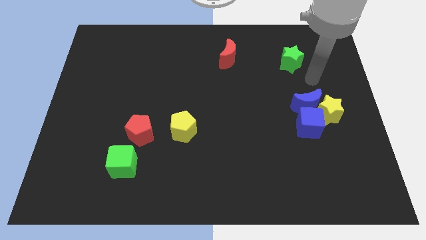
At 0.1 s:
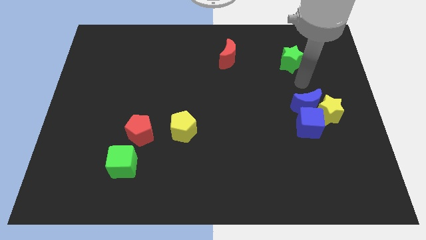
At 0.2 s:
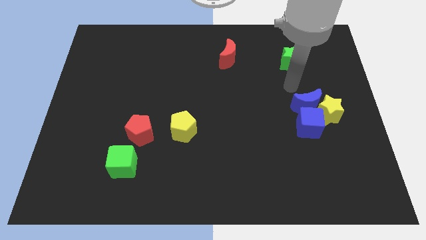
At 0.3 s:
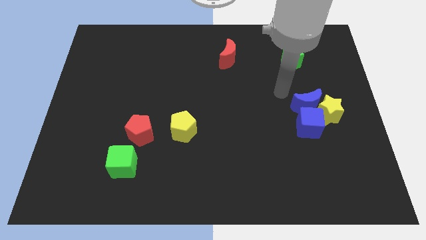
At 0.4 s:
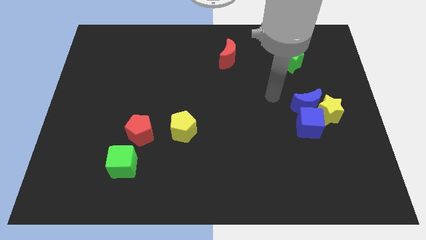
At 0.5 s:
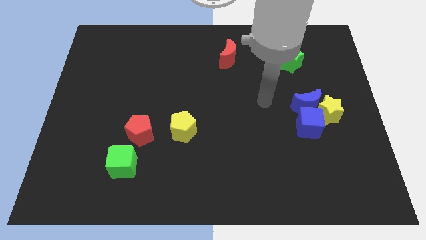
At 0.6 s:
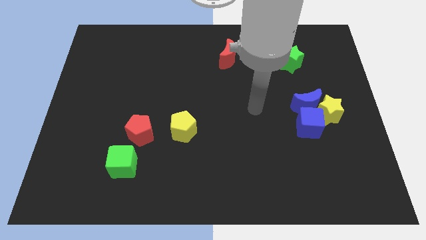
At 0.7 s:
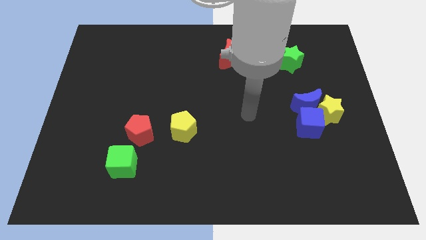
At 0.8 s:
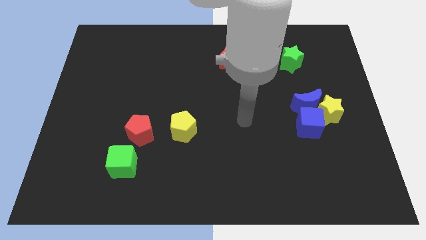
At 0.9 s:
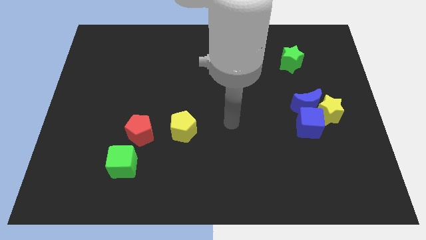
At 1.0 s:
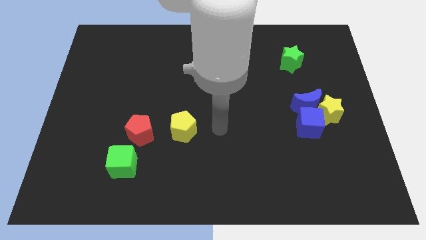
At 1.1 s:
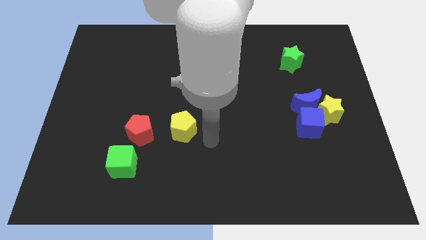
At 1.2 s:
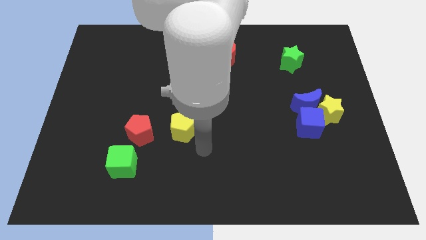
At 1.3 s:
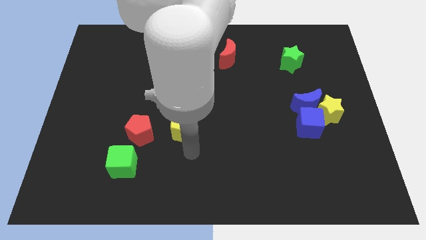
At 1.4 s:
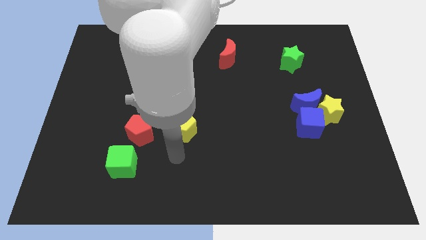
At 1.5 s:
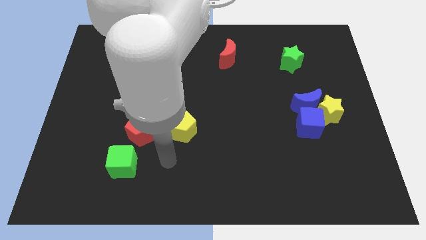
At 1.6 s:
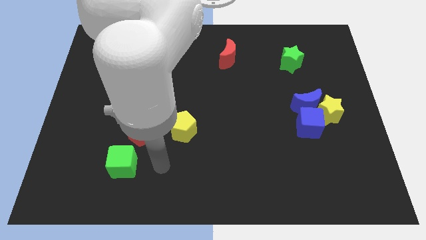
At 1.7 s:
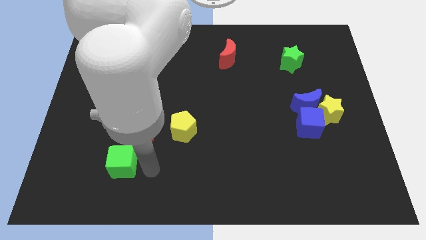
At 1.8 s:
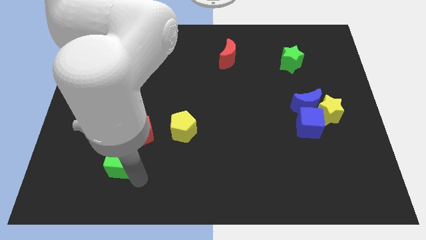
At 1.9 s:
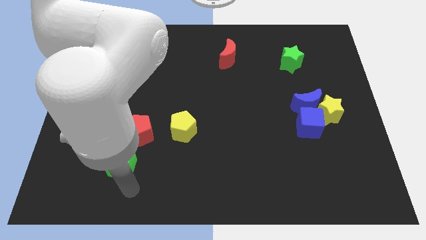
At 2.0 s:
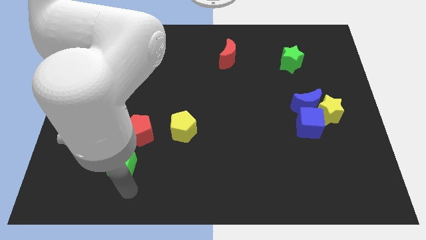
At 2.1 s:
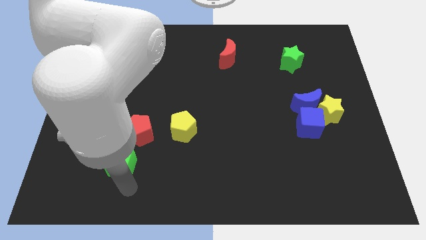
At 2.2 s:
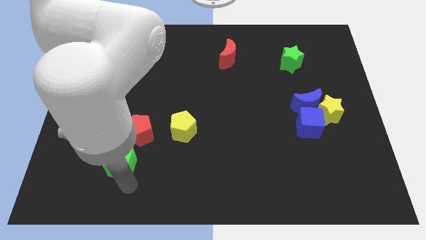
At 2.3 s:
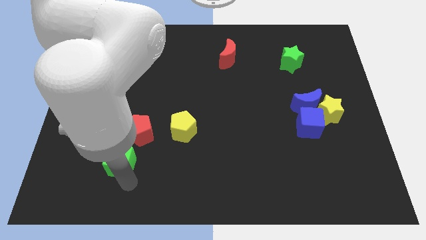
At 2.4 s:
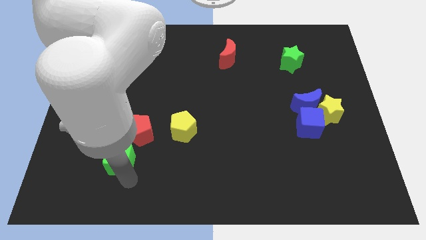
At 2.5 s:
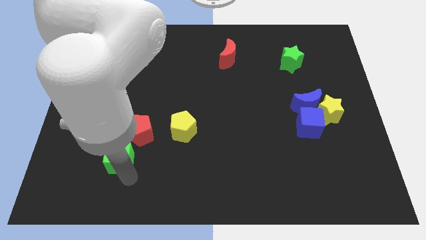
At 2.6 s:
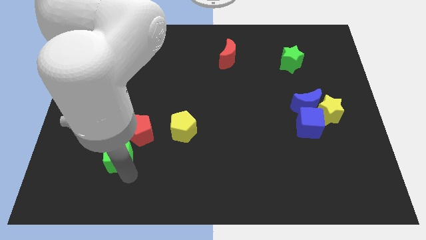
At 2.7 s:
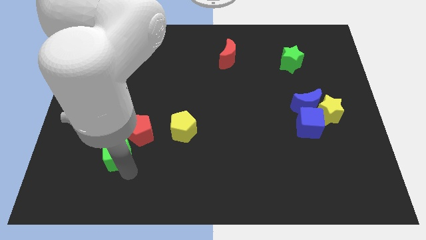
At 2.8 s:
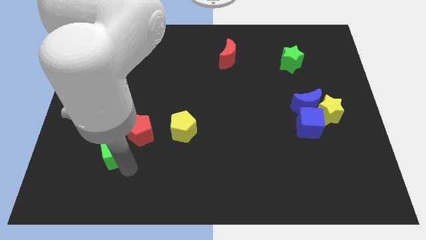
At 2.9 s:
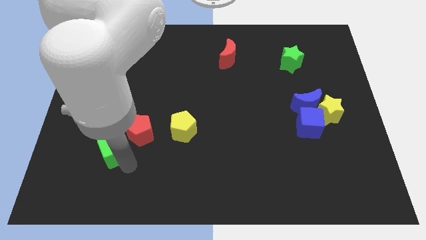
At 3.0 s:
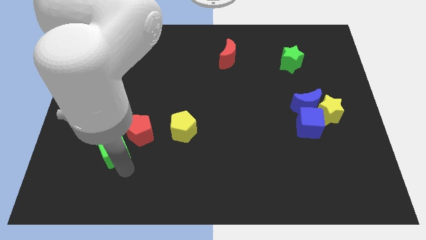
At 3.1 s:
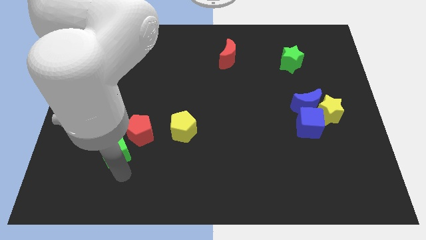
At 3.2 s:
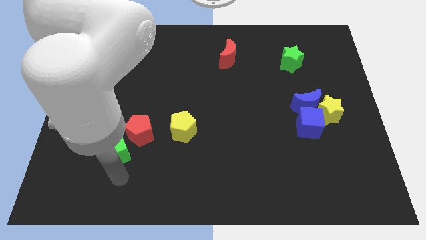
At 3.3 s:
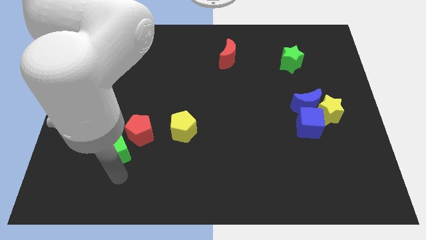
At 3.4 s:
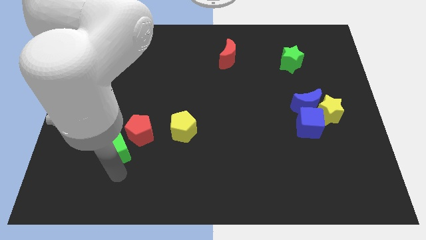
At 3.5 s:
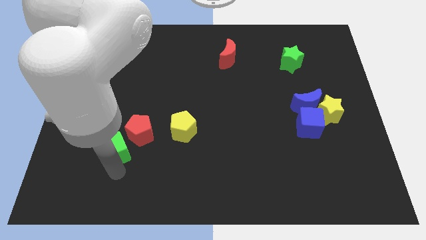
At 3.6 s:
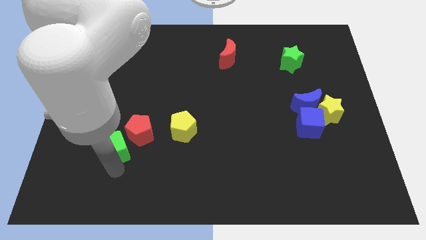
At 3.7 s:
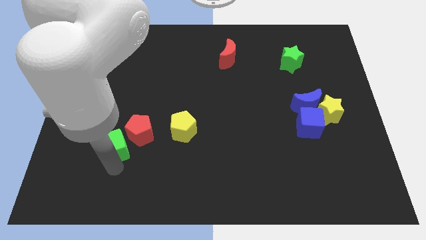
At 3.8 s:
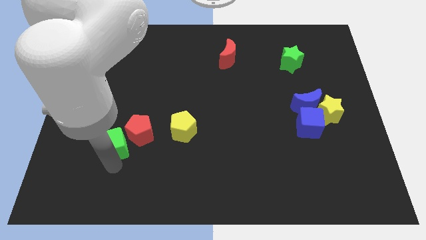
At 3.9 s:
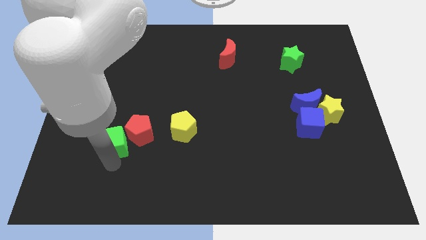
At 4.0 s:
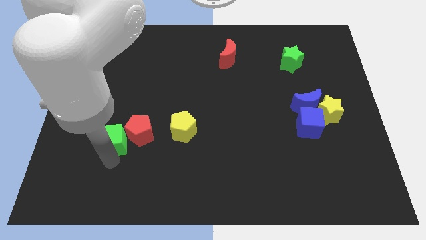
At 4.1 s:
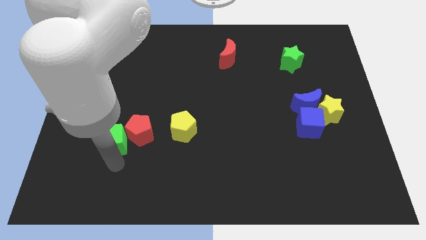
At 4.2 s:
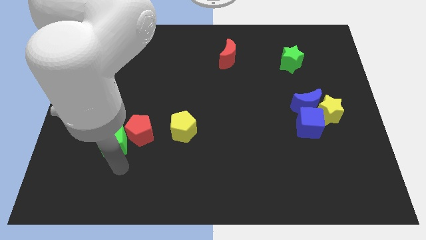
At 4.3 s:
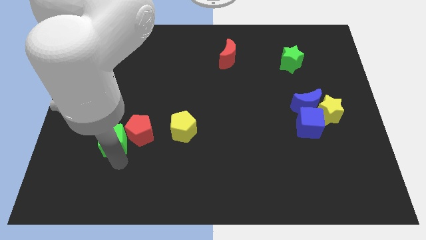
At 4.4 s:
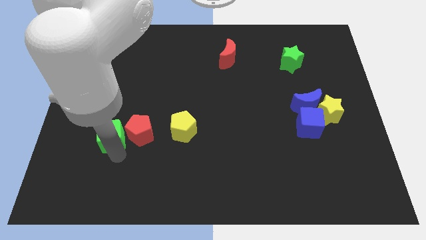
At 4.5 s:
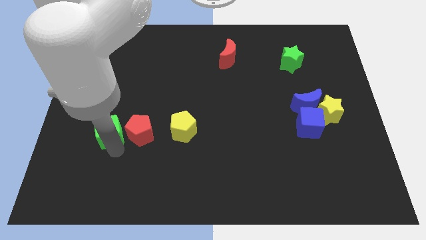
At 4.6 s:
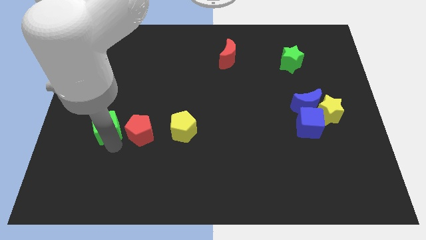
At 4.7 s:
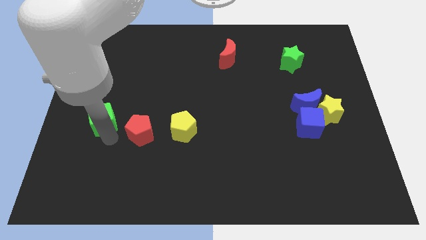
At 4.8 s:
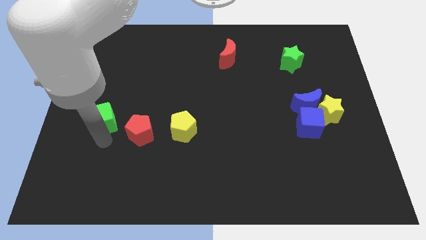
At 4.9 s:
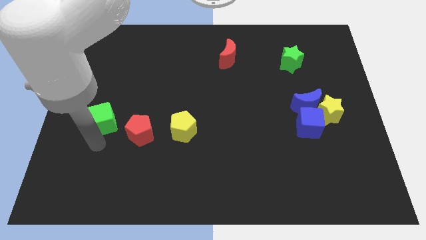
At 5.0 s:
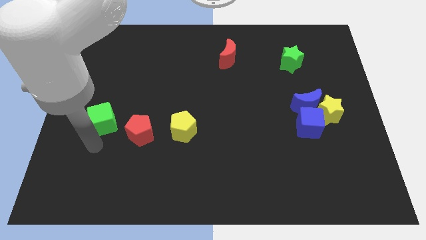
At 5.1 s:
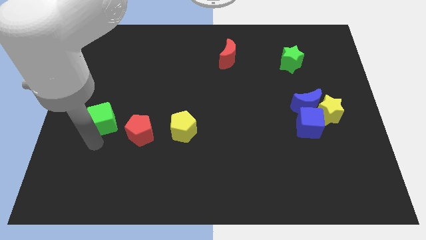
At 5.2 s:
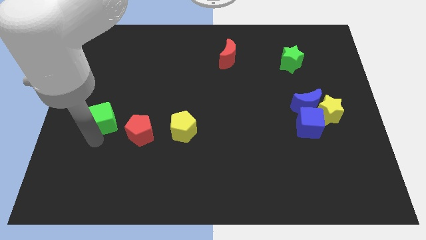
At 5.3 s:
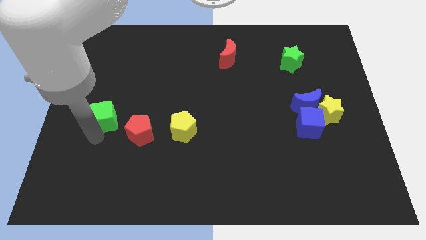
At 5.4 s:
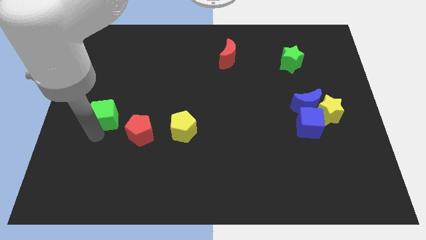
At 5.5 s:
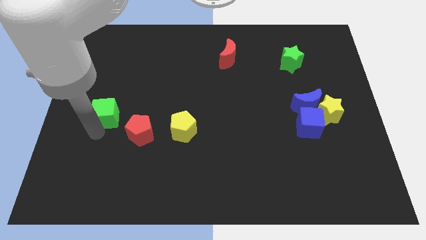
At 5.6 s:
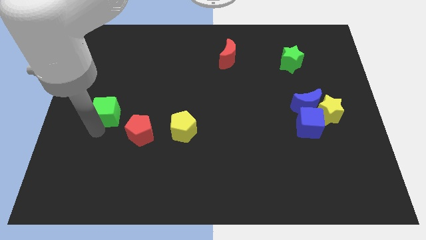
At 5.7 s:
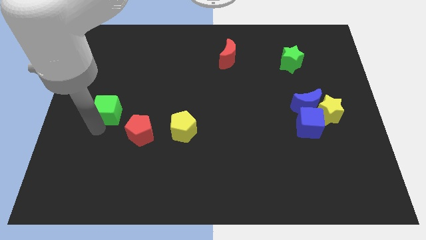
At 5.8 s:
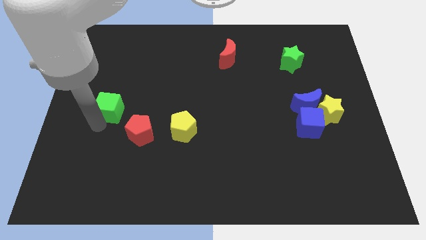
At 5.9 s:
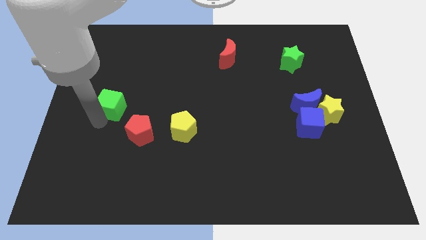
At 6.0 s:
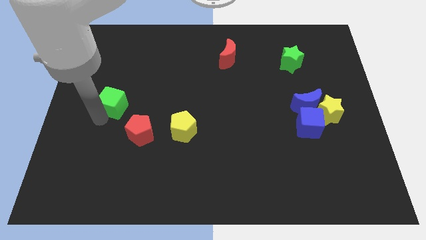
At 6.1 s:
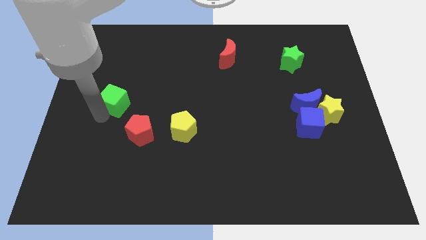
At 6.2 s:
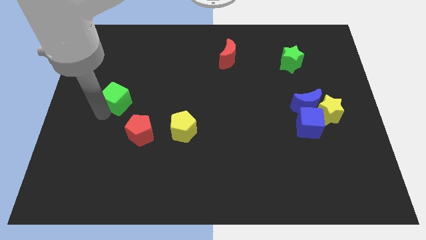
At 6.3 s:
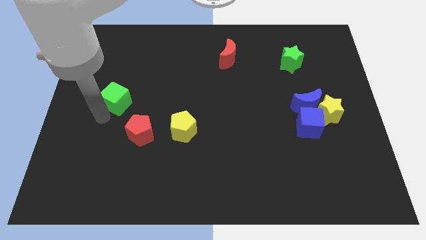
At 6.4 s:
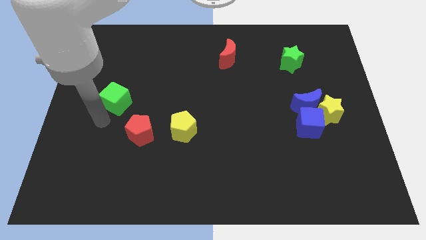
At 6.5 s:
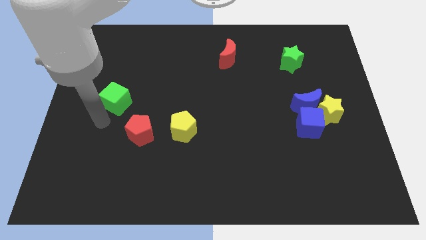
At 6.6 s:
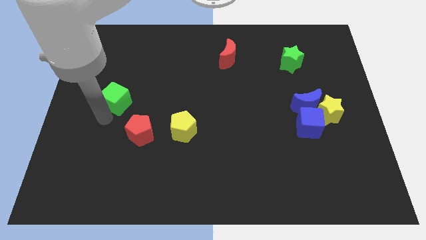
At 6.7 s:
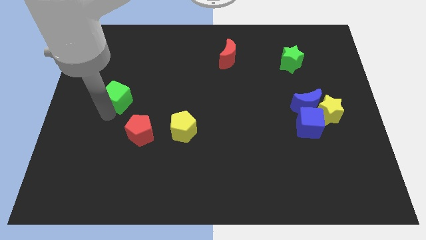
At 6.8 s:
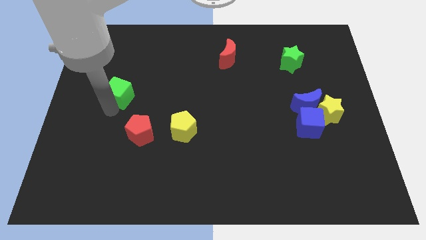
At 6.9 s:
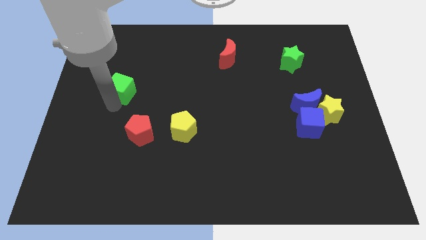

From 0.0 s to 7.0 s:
slide the green cube up

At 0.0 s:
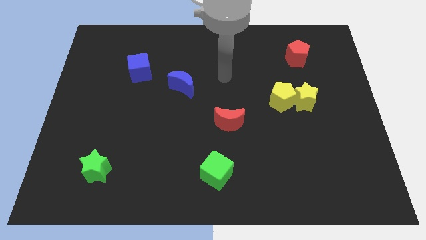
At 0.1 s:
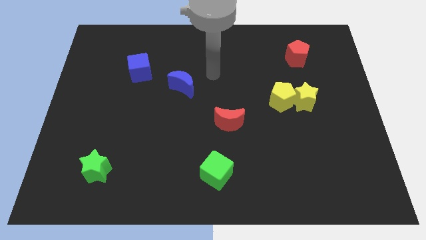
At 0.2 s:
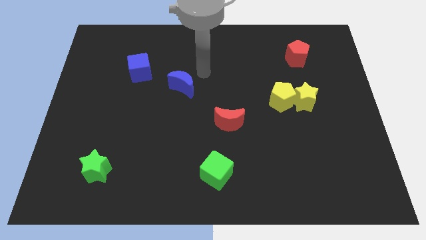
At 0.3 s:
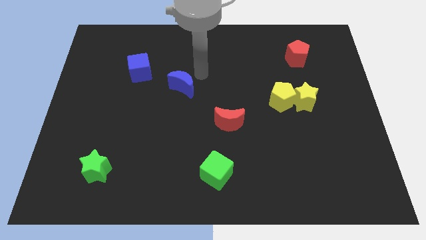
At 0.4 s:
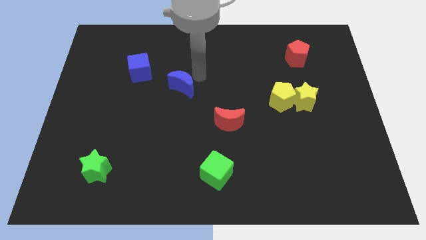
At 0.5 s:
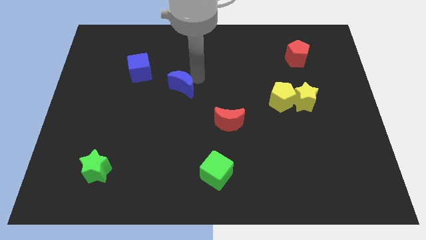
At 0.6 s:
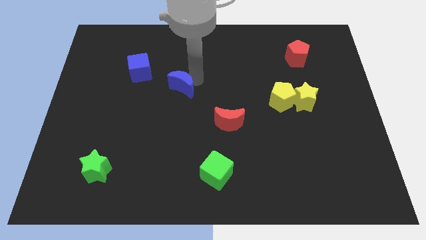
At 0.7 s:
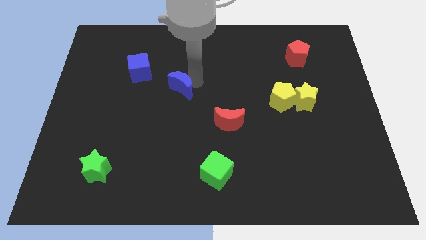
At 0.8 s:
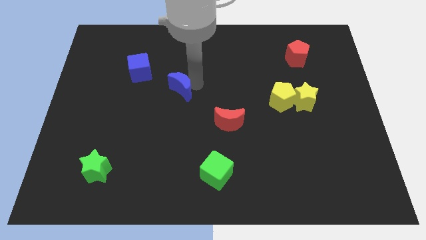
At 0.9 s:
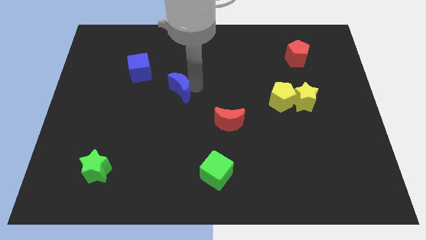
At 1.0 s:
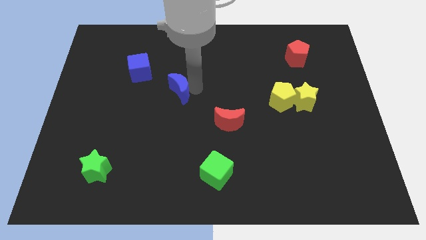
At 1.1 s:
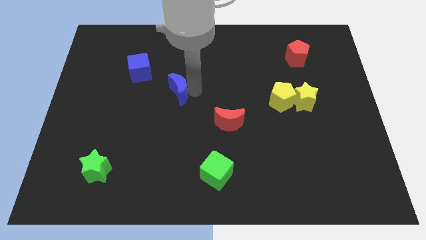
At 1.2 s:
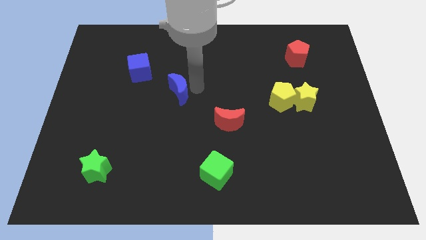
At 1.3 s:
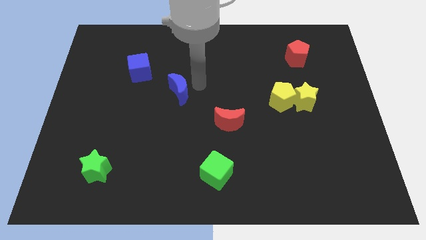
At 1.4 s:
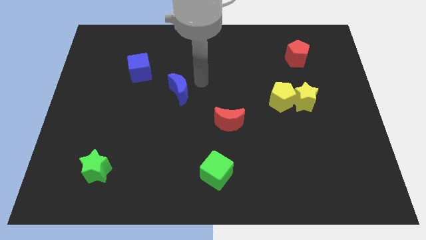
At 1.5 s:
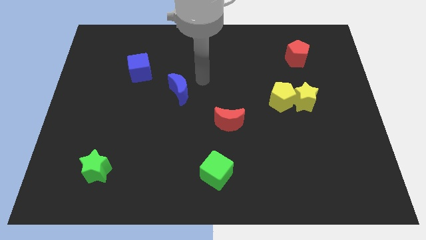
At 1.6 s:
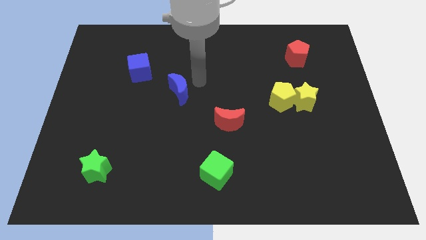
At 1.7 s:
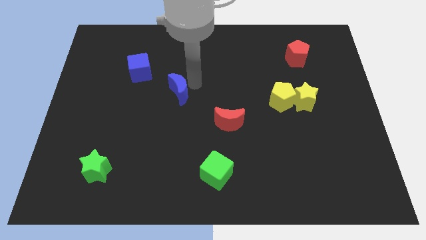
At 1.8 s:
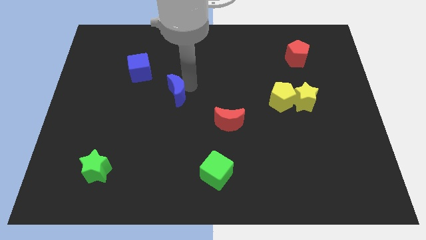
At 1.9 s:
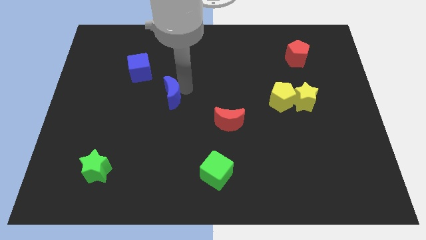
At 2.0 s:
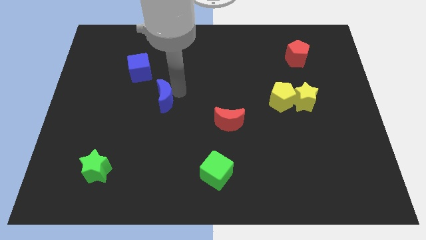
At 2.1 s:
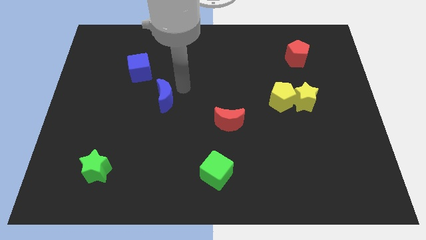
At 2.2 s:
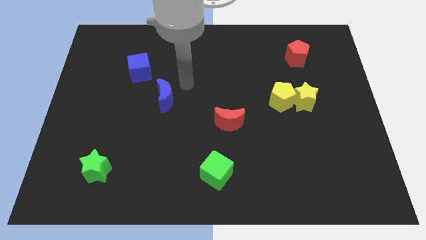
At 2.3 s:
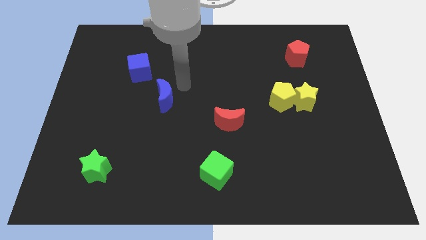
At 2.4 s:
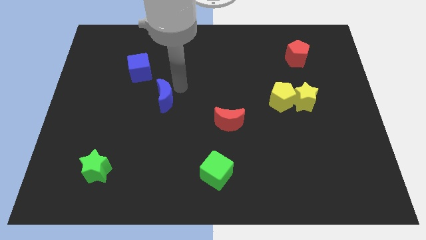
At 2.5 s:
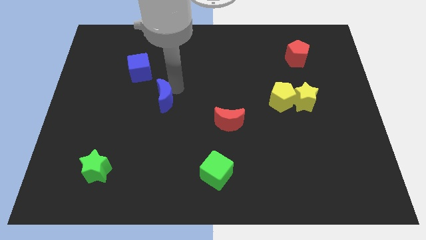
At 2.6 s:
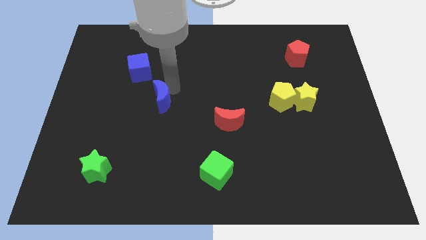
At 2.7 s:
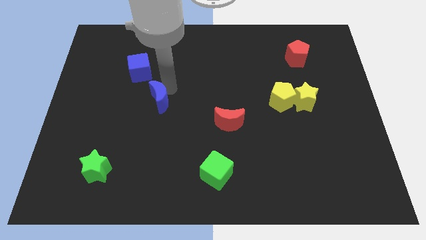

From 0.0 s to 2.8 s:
slide the blue moon somewhat downwards and to the left
